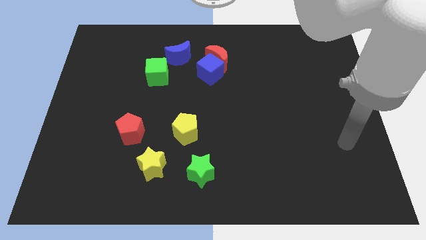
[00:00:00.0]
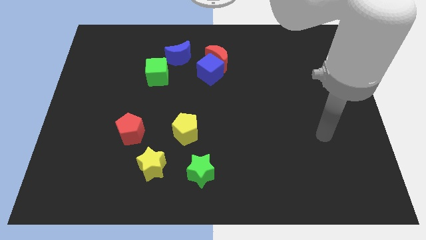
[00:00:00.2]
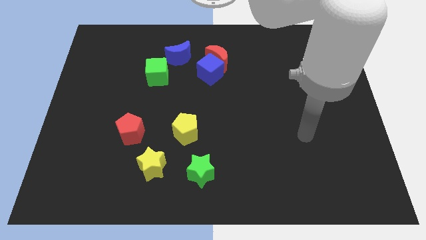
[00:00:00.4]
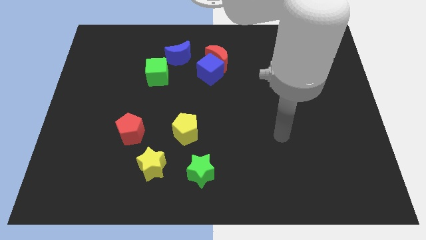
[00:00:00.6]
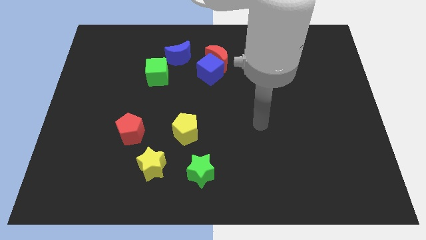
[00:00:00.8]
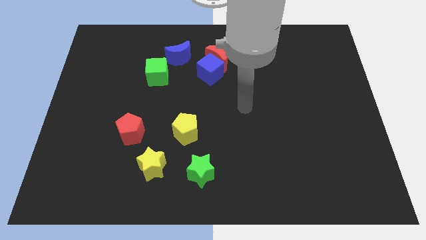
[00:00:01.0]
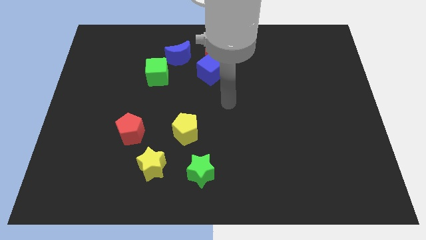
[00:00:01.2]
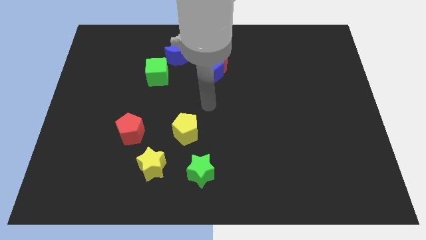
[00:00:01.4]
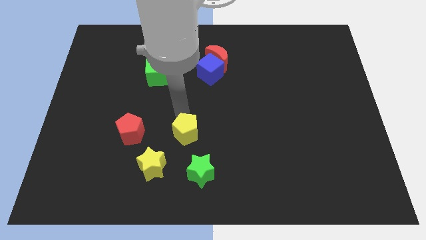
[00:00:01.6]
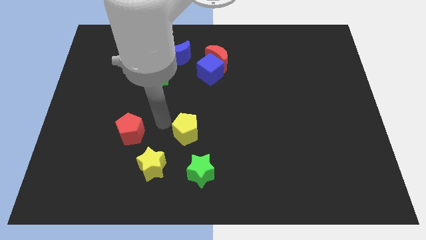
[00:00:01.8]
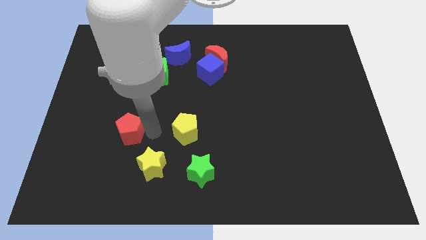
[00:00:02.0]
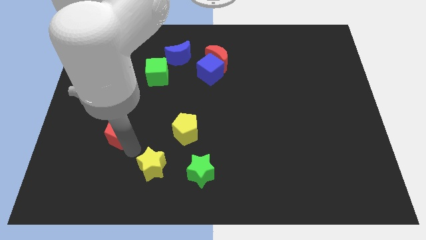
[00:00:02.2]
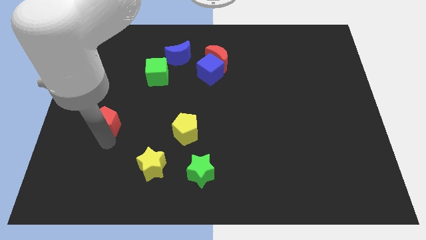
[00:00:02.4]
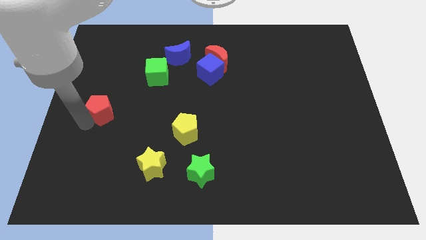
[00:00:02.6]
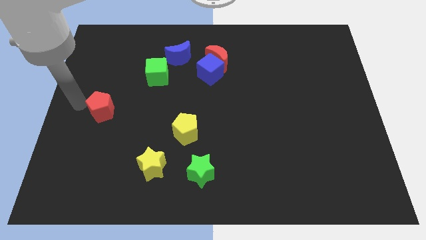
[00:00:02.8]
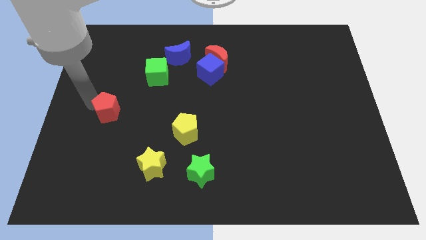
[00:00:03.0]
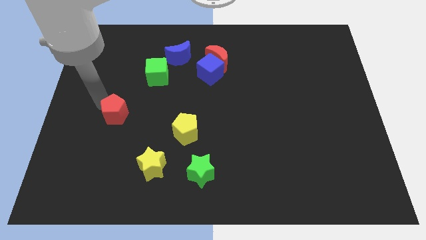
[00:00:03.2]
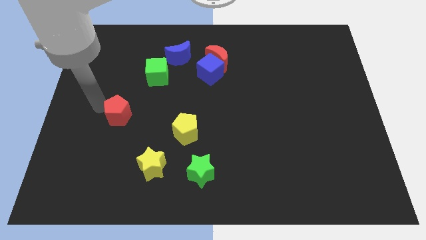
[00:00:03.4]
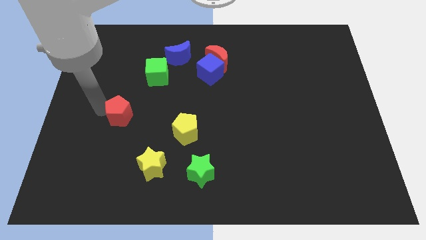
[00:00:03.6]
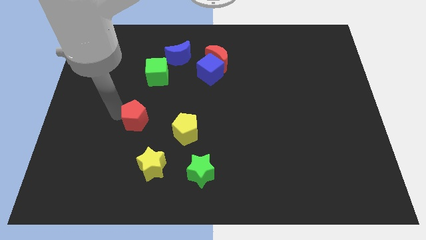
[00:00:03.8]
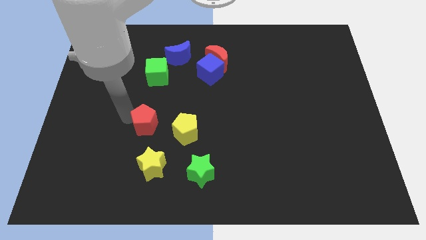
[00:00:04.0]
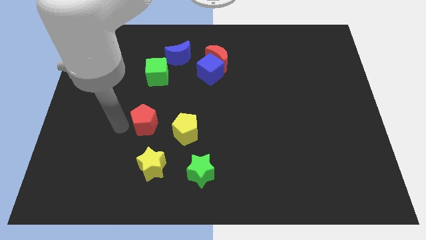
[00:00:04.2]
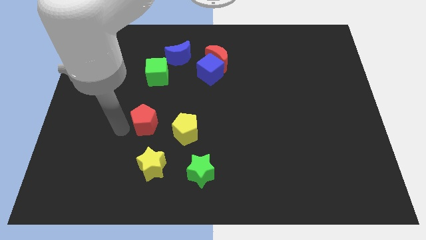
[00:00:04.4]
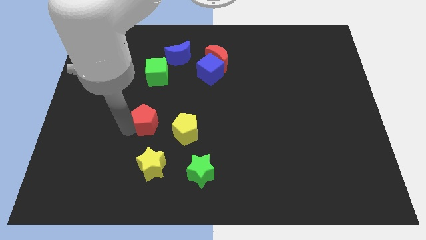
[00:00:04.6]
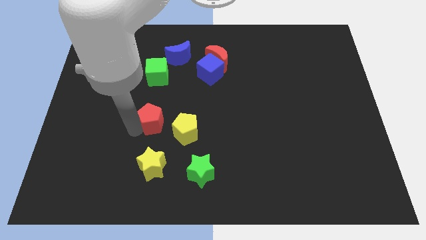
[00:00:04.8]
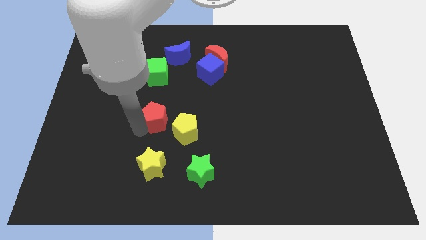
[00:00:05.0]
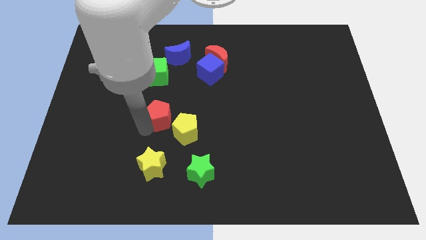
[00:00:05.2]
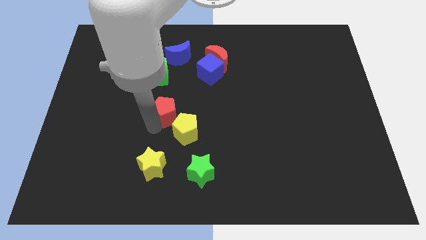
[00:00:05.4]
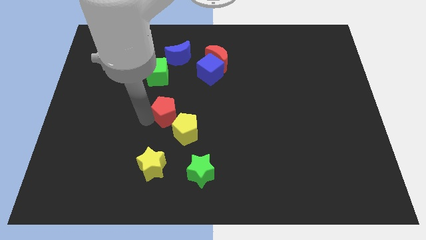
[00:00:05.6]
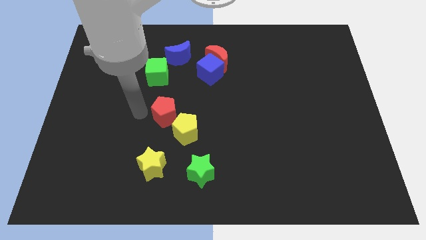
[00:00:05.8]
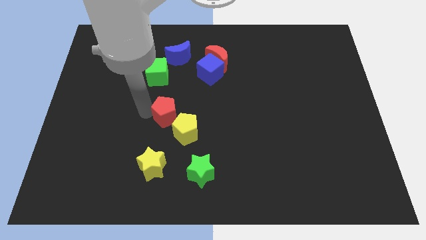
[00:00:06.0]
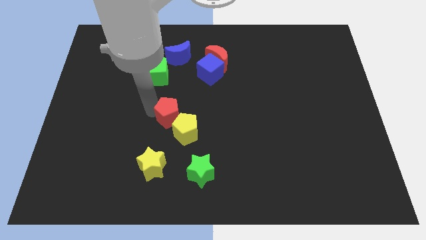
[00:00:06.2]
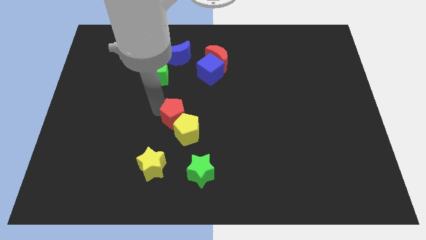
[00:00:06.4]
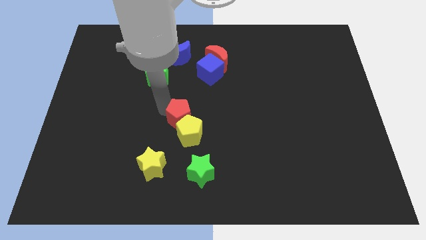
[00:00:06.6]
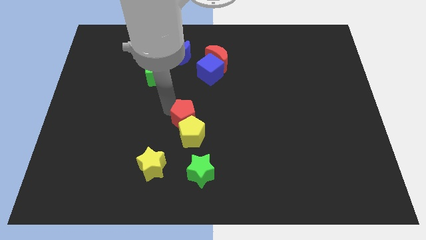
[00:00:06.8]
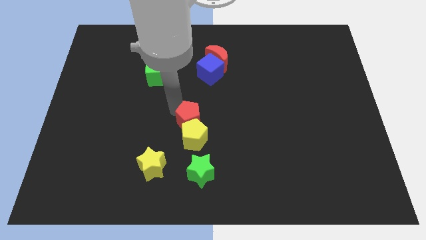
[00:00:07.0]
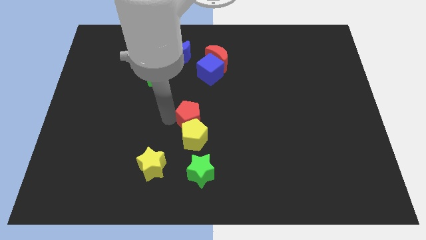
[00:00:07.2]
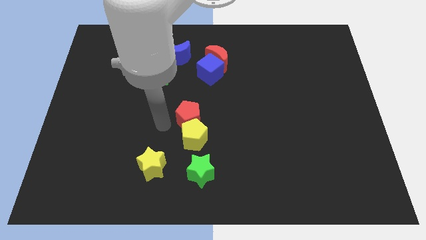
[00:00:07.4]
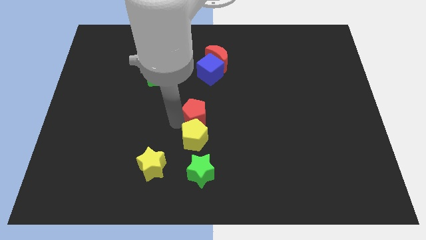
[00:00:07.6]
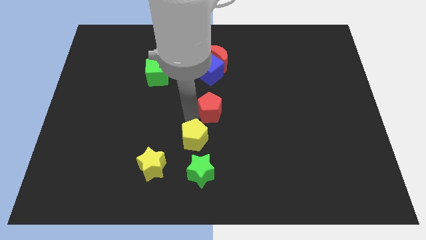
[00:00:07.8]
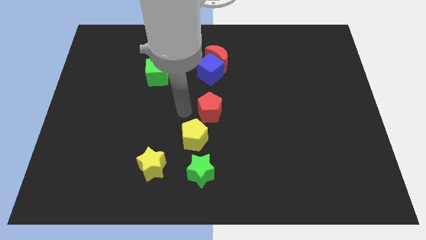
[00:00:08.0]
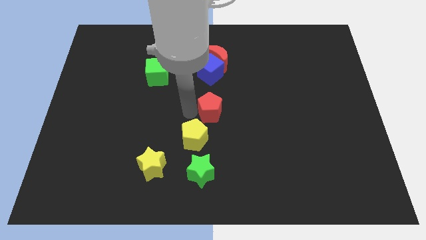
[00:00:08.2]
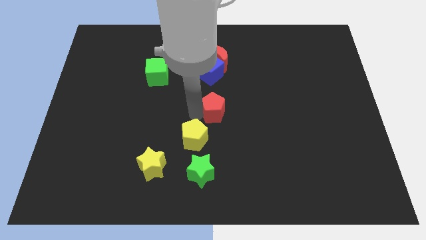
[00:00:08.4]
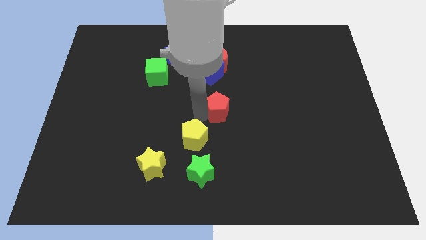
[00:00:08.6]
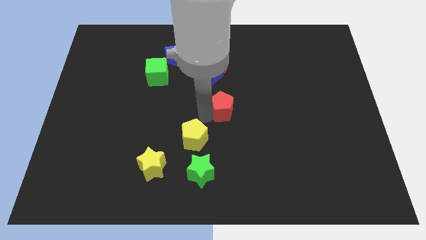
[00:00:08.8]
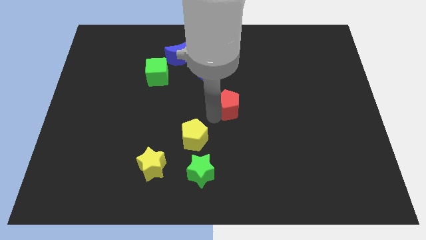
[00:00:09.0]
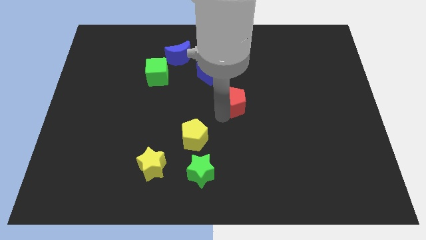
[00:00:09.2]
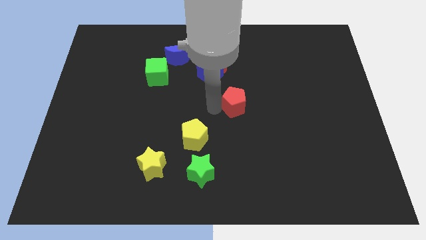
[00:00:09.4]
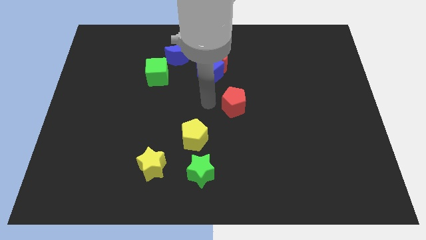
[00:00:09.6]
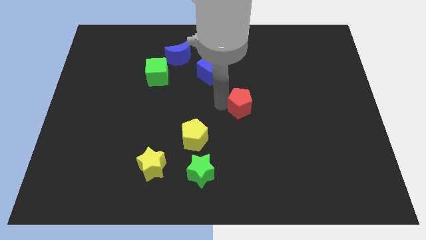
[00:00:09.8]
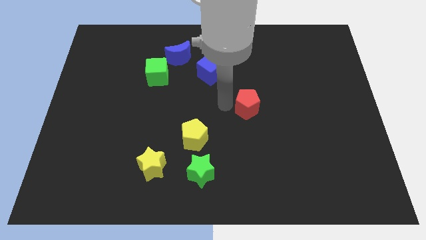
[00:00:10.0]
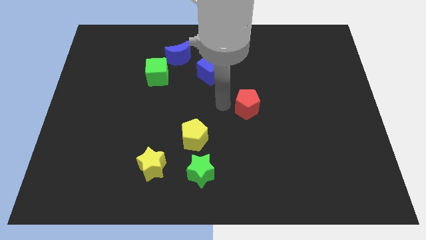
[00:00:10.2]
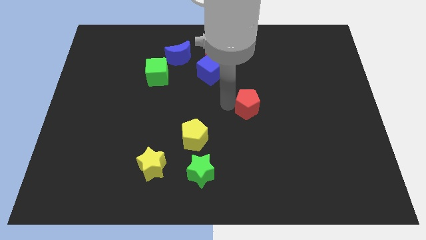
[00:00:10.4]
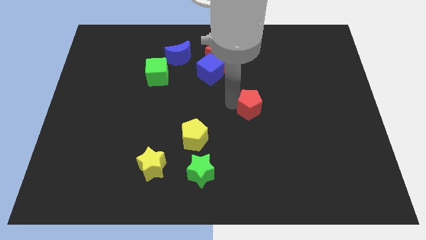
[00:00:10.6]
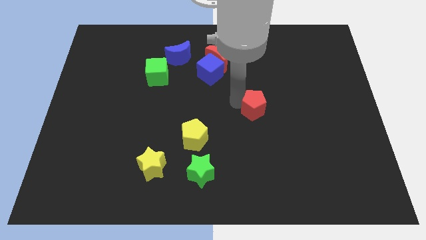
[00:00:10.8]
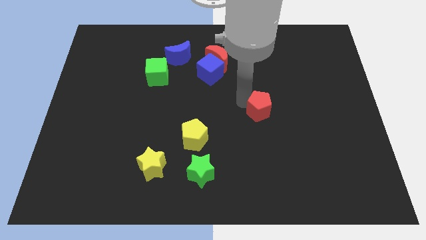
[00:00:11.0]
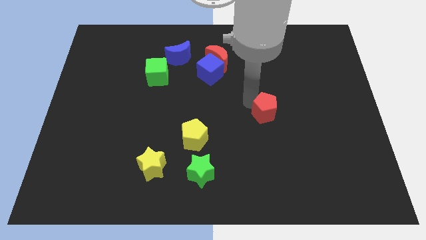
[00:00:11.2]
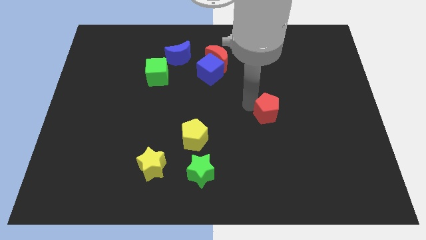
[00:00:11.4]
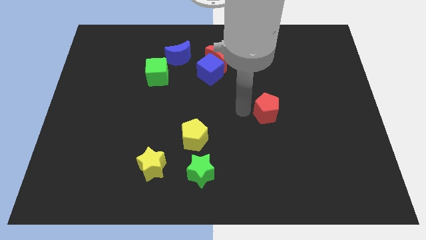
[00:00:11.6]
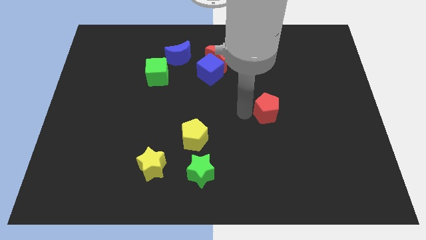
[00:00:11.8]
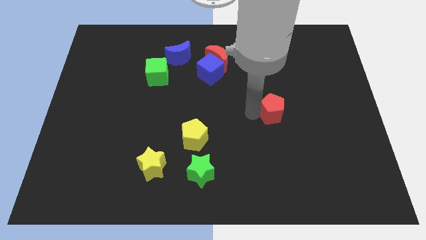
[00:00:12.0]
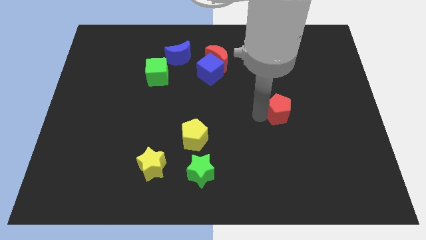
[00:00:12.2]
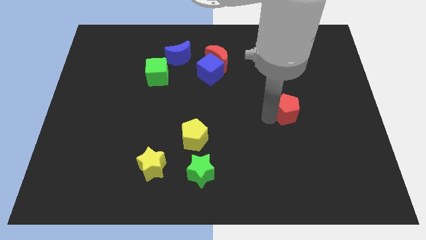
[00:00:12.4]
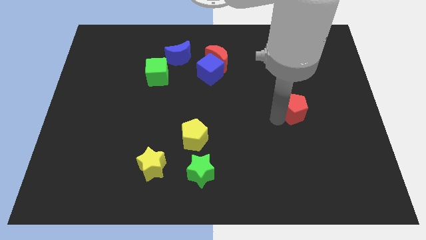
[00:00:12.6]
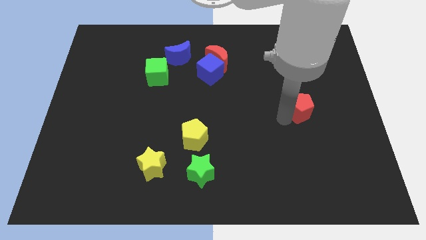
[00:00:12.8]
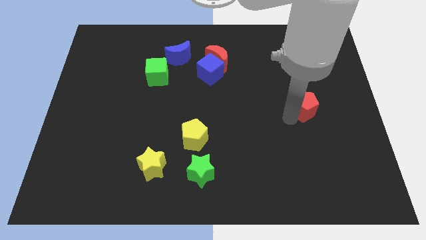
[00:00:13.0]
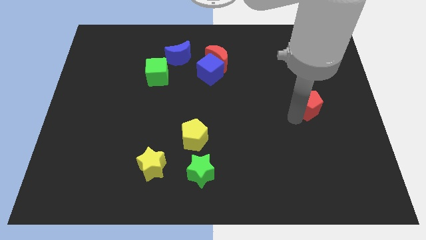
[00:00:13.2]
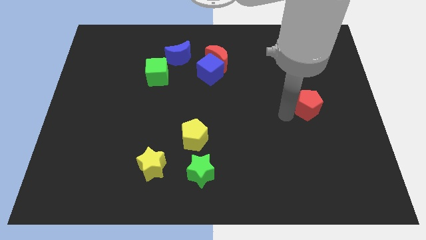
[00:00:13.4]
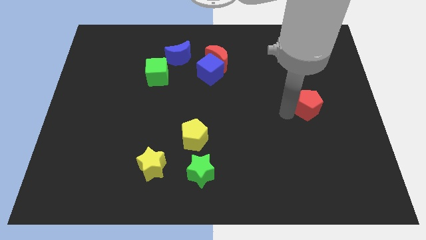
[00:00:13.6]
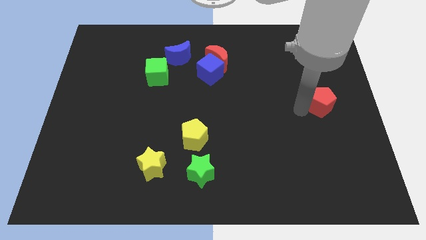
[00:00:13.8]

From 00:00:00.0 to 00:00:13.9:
slide the red pentagon to the right side

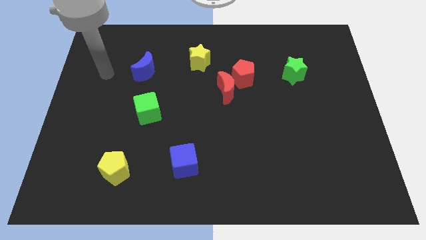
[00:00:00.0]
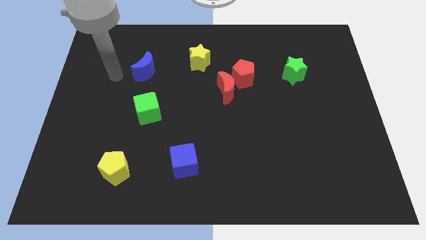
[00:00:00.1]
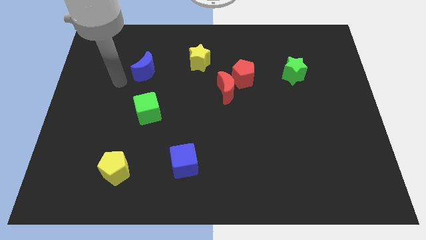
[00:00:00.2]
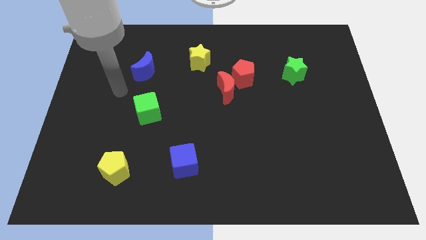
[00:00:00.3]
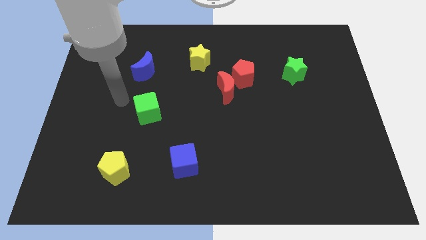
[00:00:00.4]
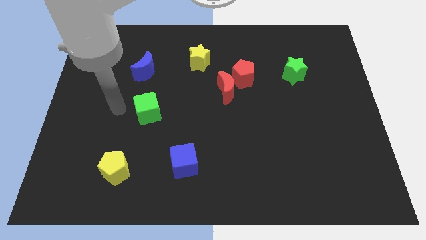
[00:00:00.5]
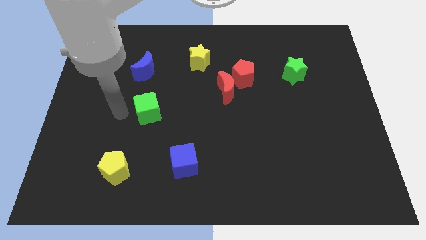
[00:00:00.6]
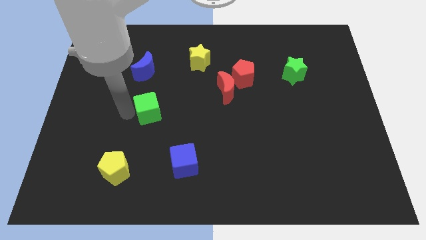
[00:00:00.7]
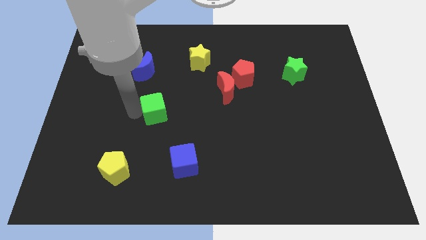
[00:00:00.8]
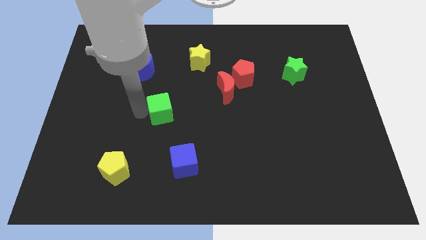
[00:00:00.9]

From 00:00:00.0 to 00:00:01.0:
push the green cube to the middle of the board
